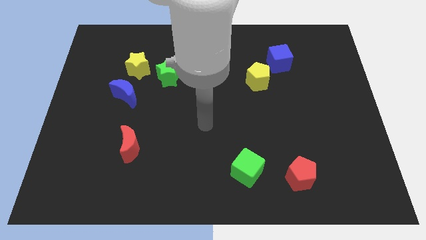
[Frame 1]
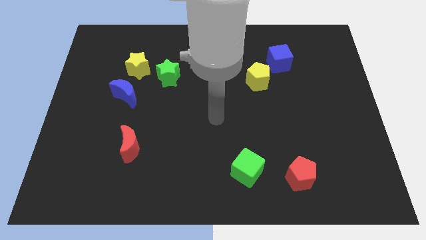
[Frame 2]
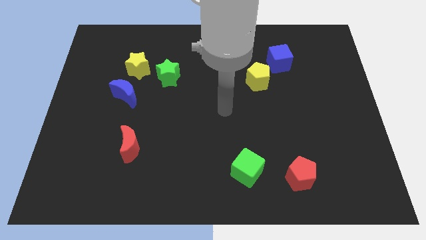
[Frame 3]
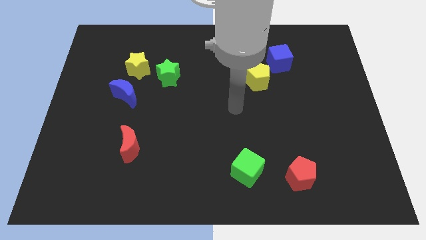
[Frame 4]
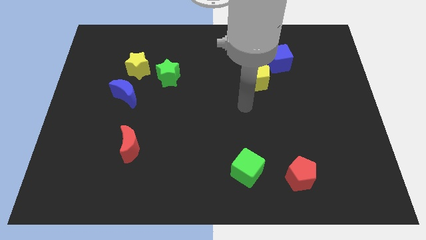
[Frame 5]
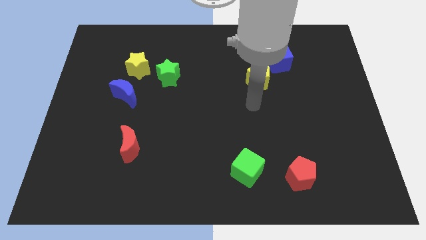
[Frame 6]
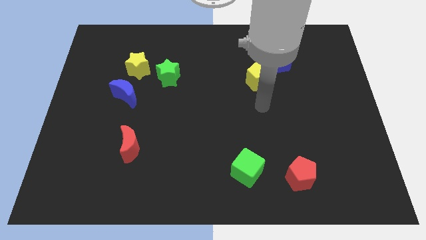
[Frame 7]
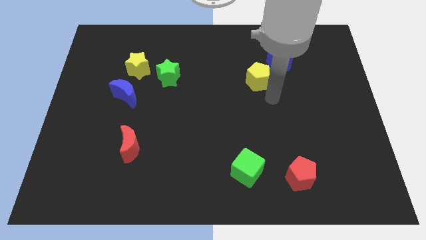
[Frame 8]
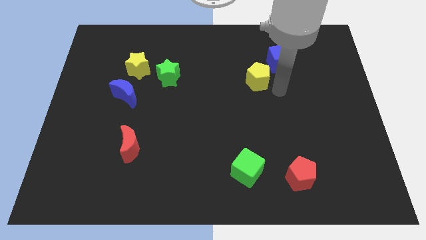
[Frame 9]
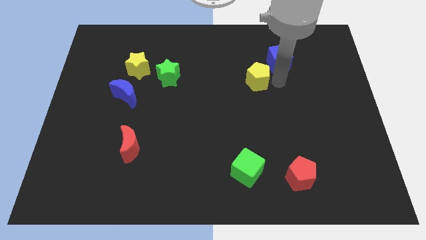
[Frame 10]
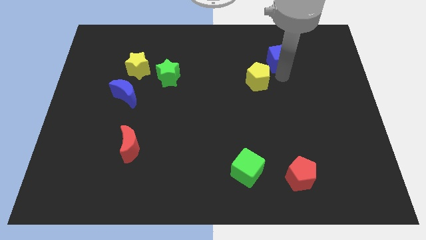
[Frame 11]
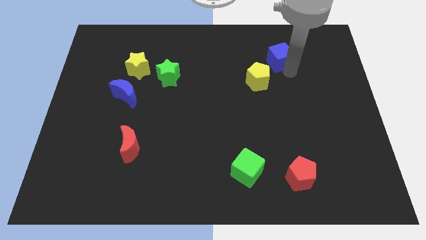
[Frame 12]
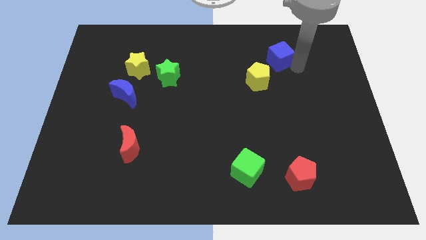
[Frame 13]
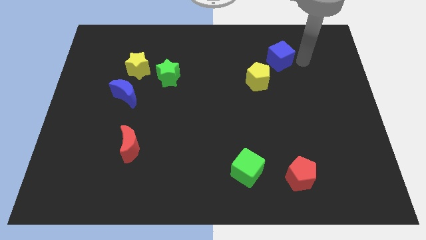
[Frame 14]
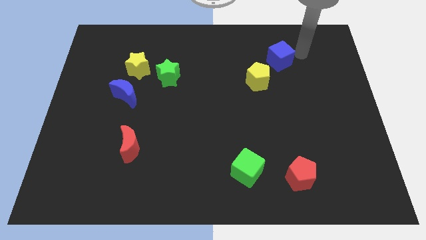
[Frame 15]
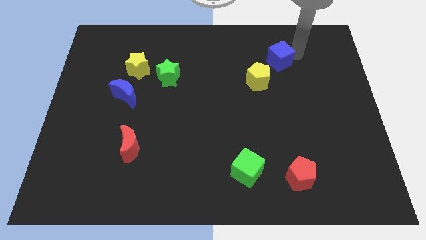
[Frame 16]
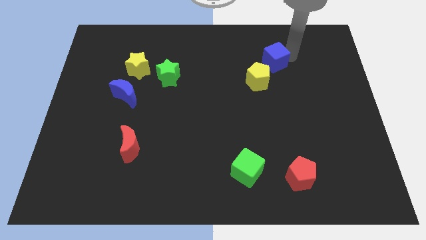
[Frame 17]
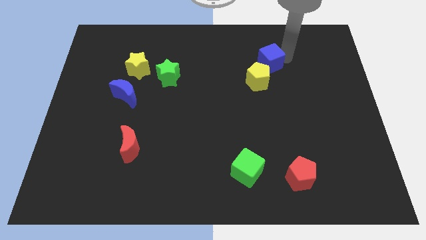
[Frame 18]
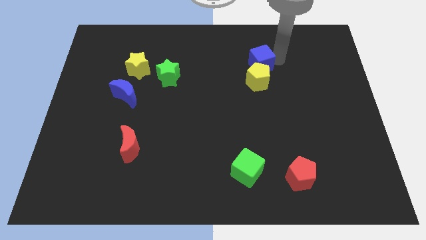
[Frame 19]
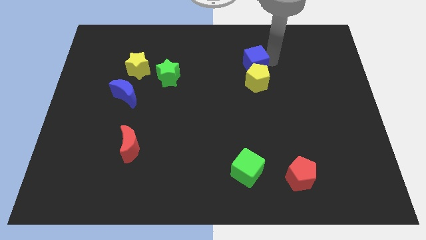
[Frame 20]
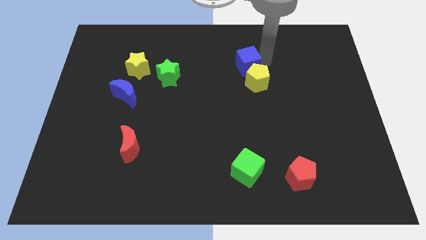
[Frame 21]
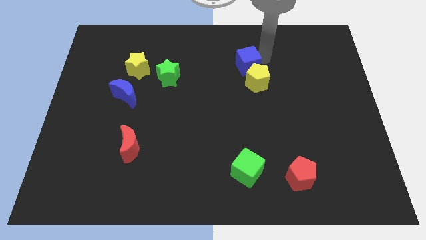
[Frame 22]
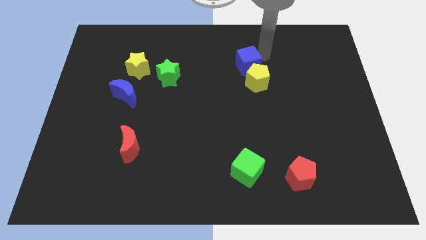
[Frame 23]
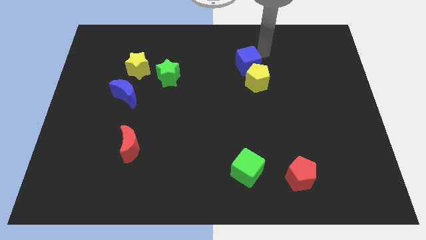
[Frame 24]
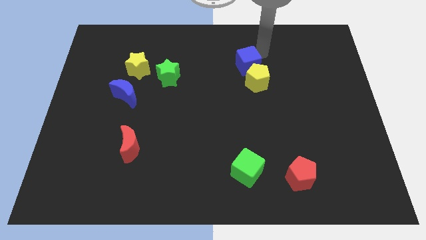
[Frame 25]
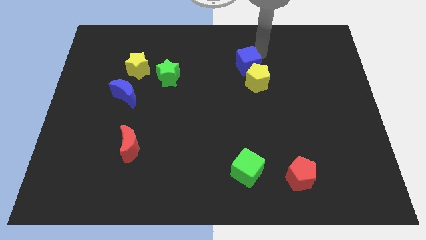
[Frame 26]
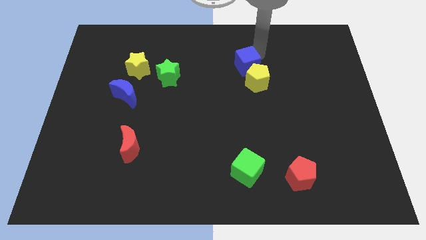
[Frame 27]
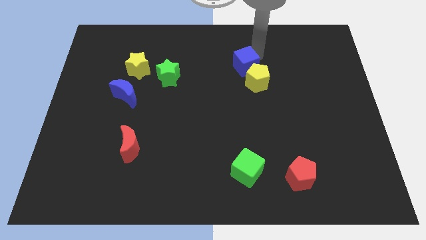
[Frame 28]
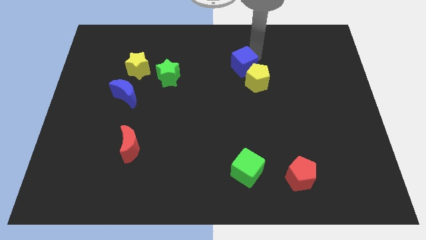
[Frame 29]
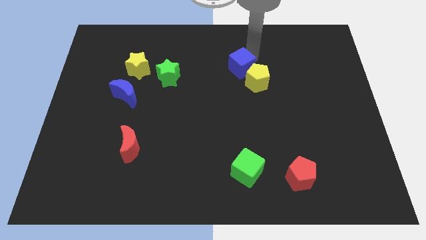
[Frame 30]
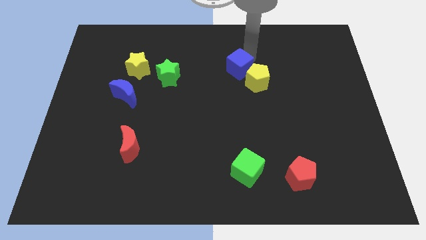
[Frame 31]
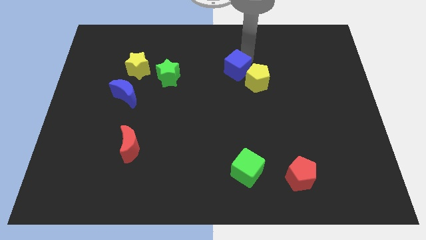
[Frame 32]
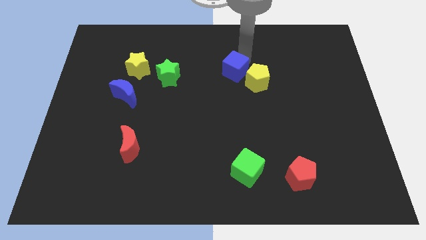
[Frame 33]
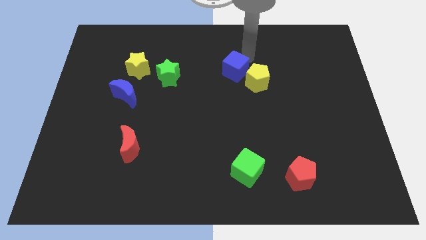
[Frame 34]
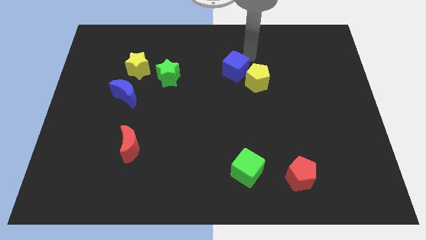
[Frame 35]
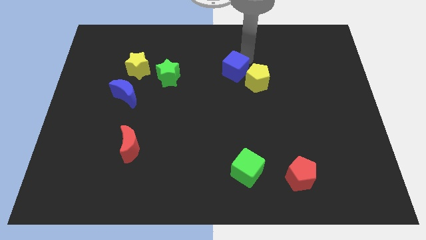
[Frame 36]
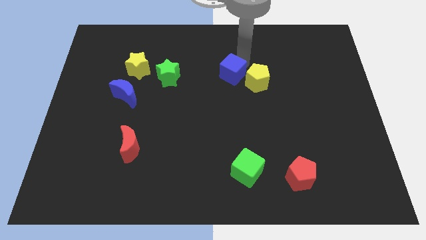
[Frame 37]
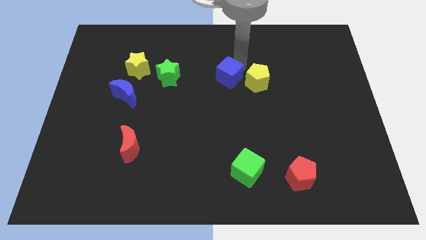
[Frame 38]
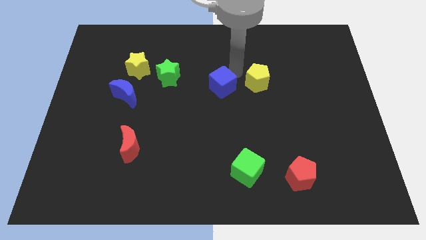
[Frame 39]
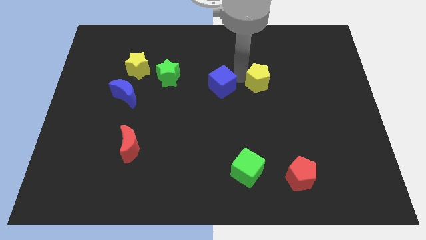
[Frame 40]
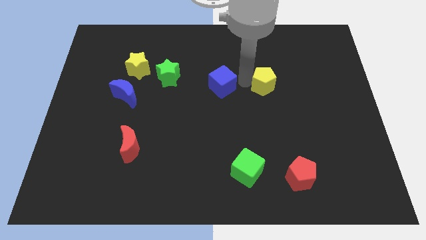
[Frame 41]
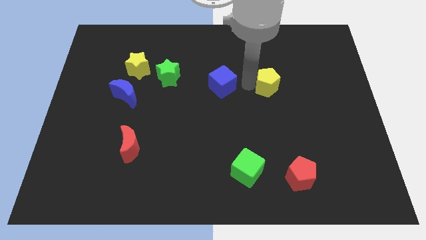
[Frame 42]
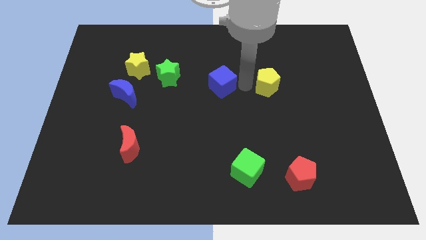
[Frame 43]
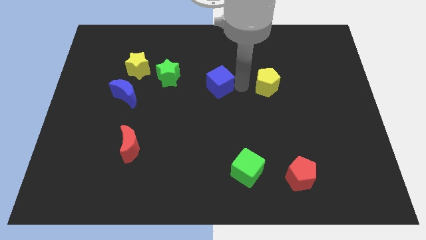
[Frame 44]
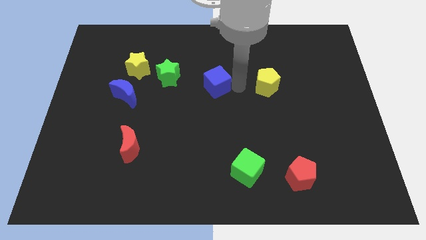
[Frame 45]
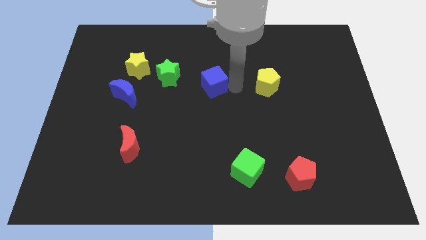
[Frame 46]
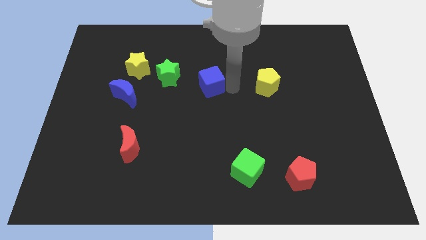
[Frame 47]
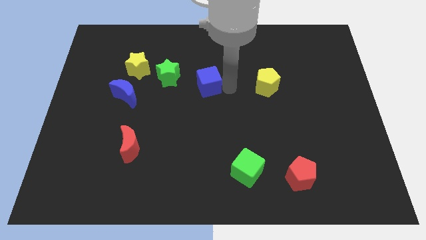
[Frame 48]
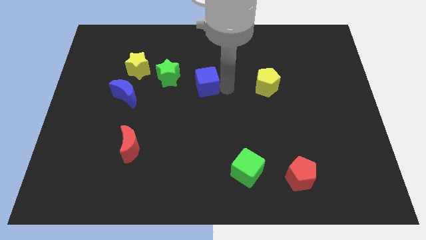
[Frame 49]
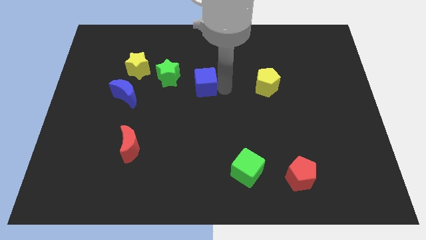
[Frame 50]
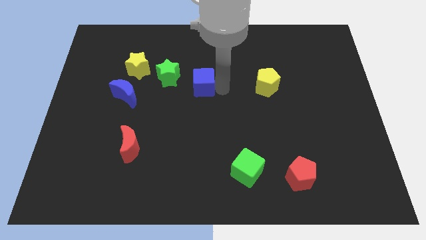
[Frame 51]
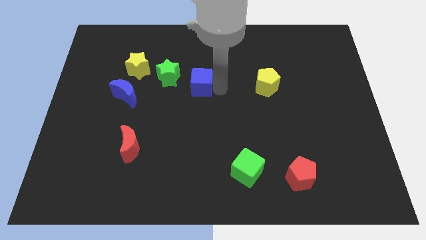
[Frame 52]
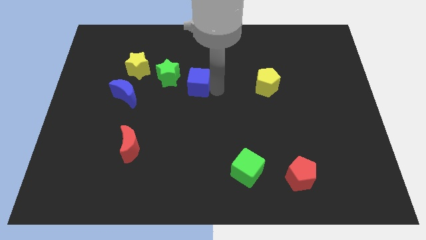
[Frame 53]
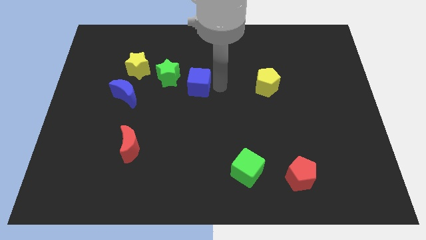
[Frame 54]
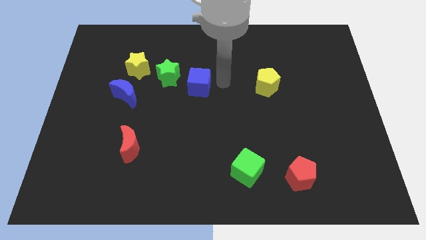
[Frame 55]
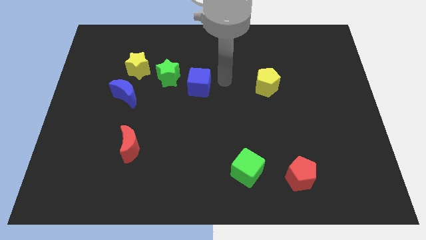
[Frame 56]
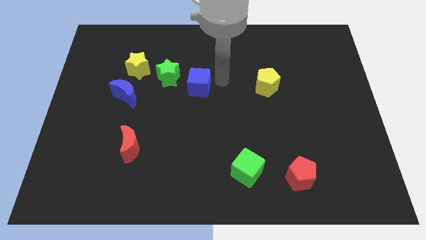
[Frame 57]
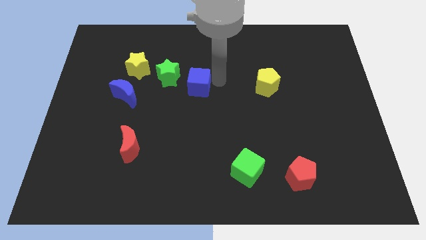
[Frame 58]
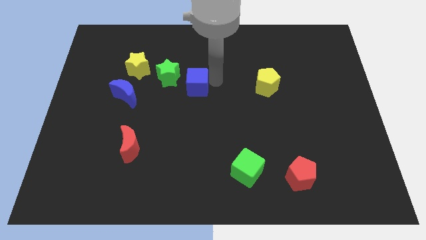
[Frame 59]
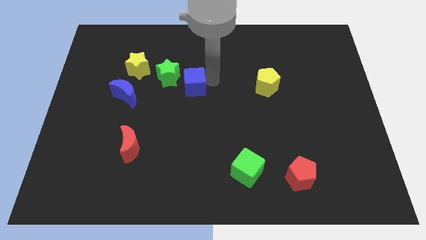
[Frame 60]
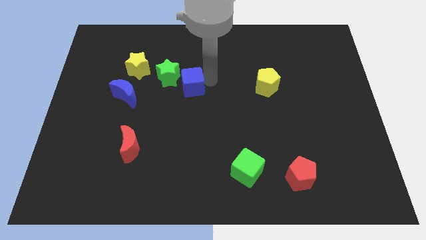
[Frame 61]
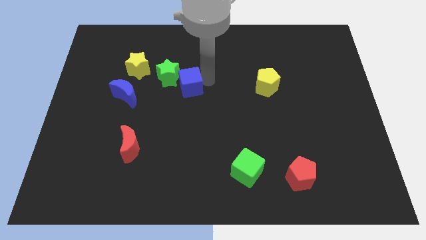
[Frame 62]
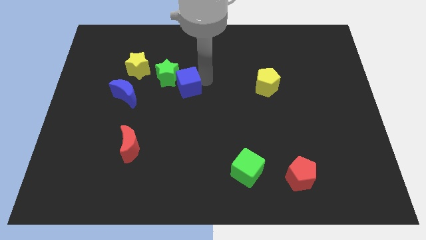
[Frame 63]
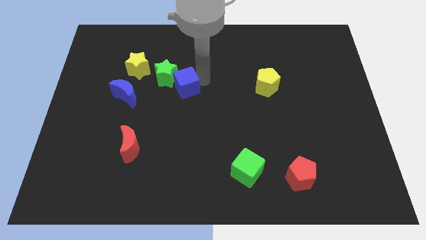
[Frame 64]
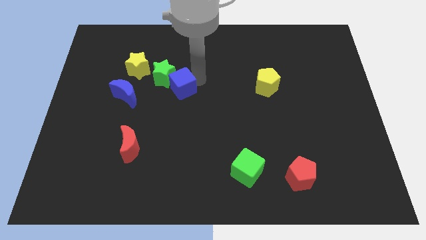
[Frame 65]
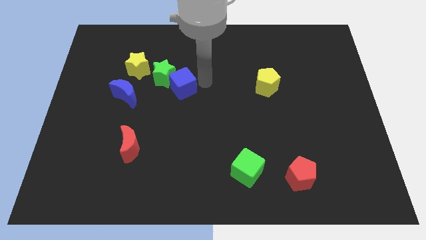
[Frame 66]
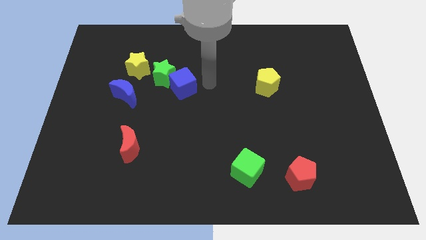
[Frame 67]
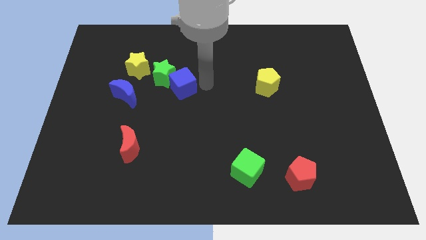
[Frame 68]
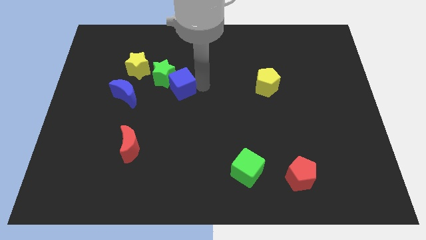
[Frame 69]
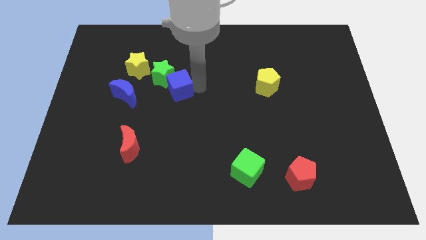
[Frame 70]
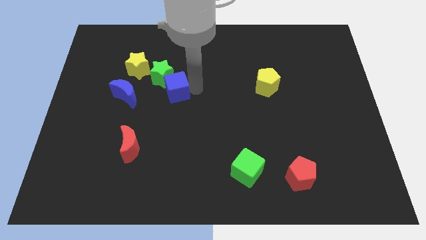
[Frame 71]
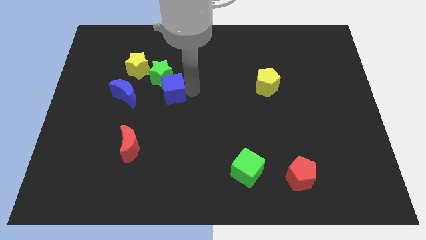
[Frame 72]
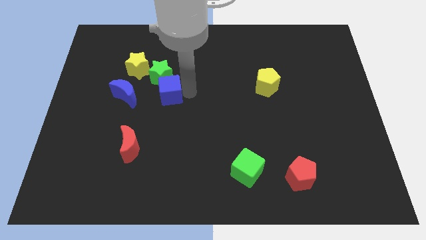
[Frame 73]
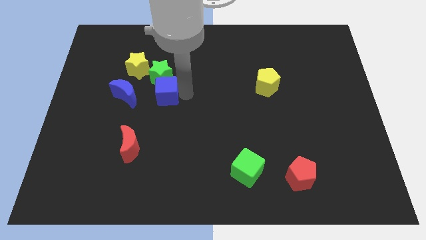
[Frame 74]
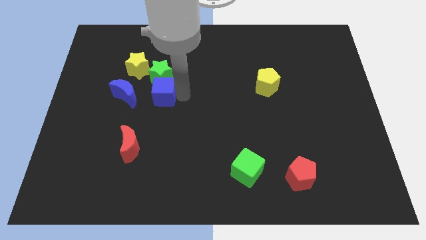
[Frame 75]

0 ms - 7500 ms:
put the blue cube to the bottom left side of the green star
